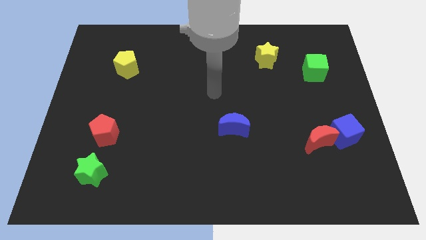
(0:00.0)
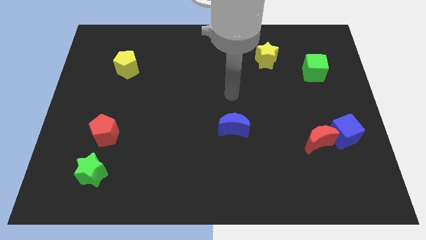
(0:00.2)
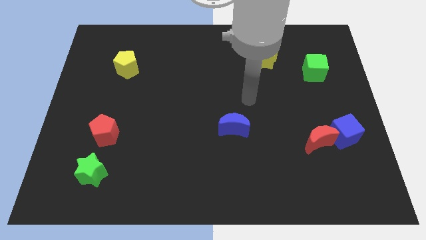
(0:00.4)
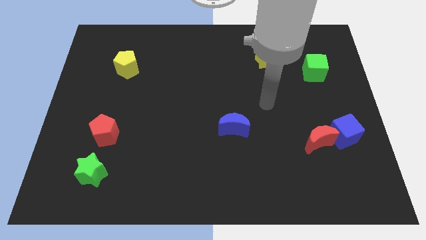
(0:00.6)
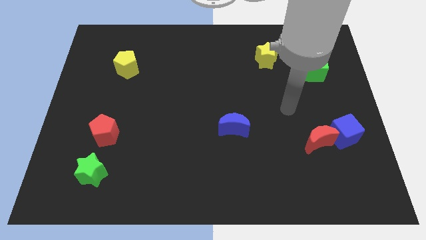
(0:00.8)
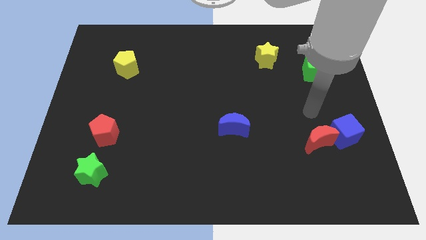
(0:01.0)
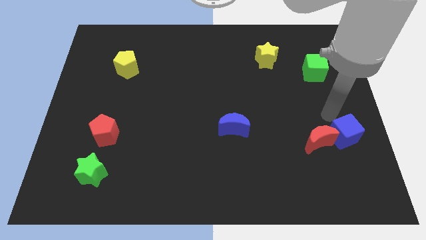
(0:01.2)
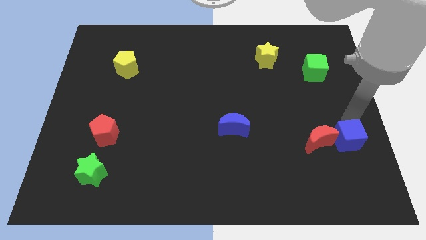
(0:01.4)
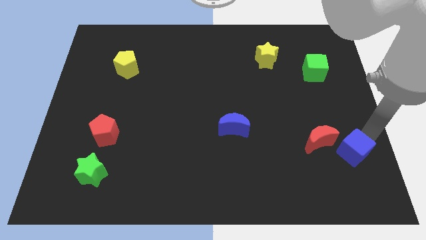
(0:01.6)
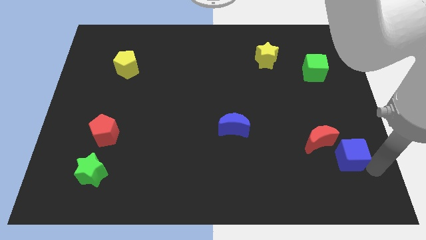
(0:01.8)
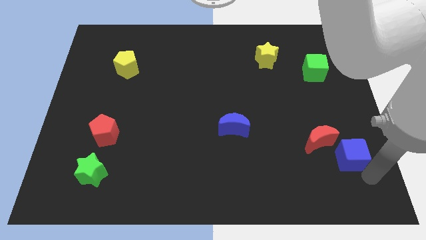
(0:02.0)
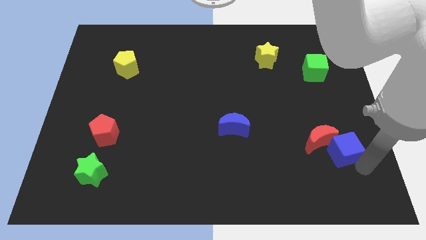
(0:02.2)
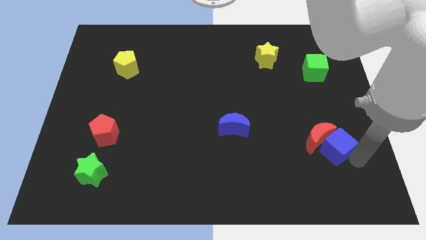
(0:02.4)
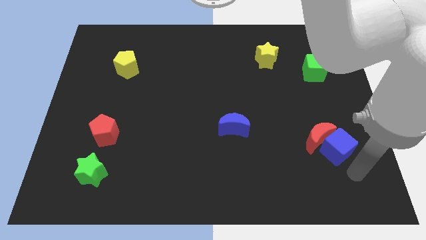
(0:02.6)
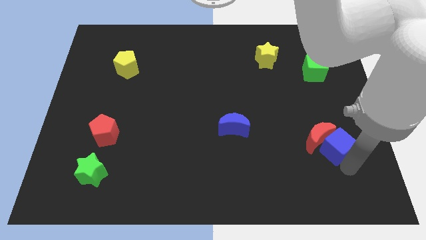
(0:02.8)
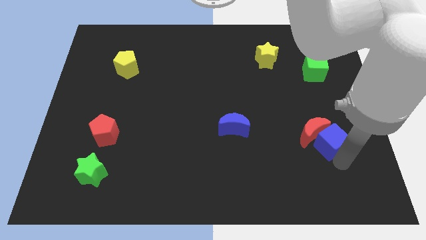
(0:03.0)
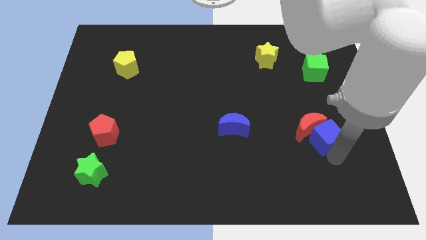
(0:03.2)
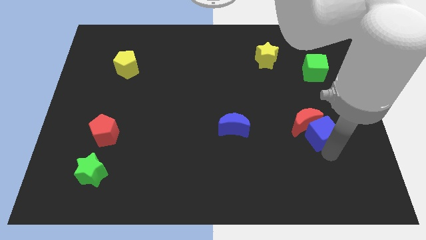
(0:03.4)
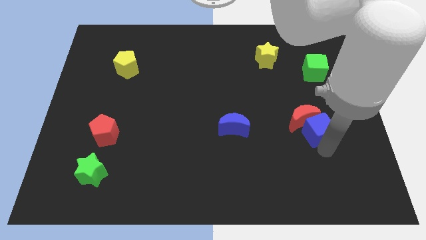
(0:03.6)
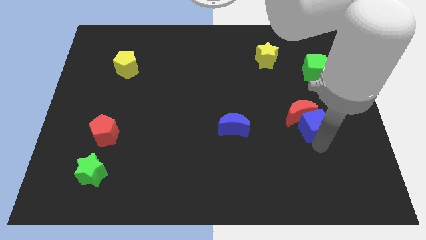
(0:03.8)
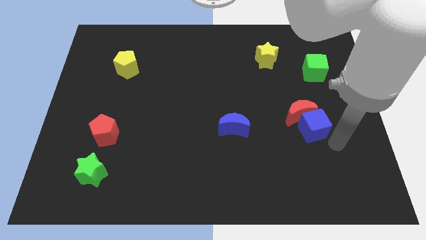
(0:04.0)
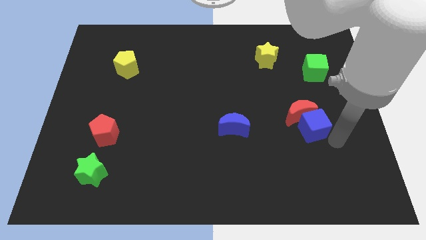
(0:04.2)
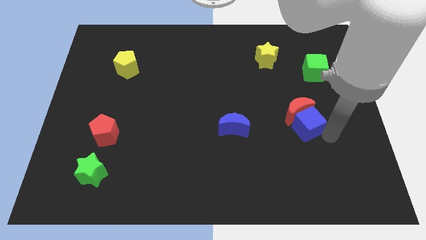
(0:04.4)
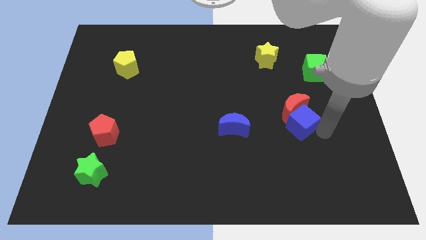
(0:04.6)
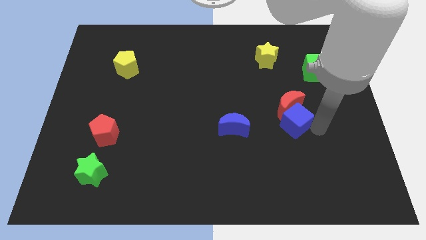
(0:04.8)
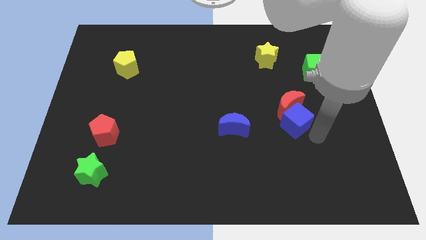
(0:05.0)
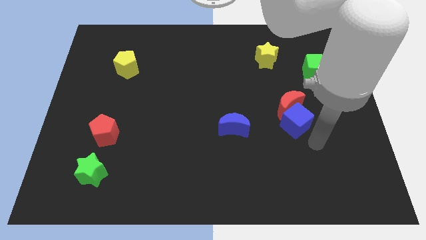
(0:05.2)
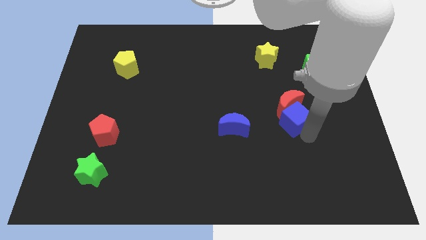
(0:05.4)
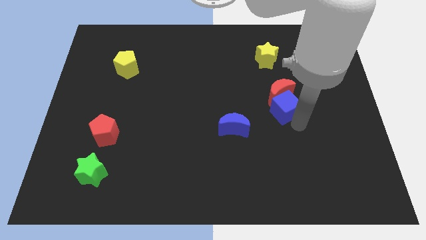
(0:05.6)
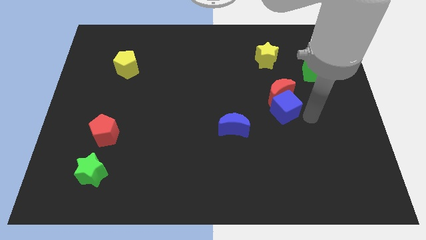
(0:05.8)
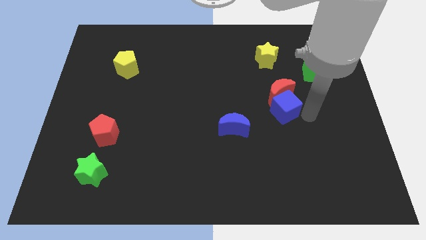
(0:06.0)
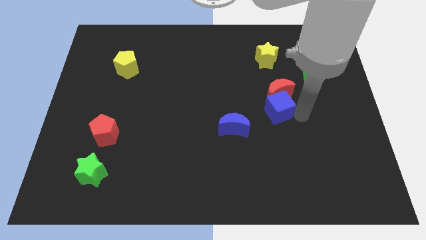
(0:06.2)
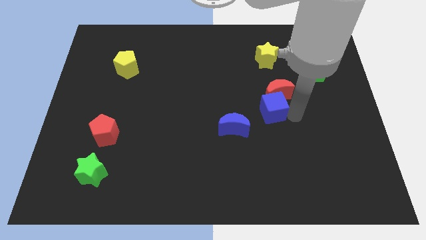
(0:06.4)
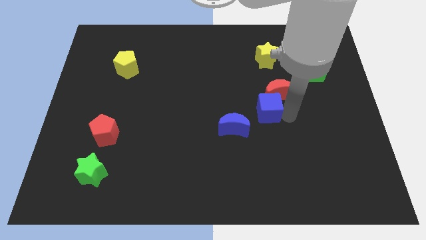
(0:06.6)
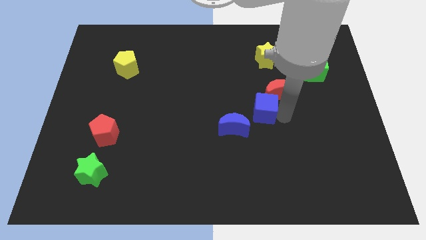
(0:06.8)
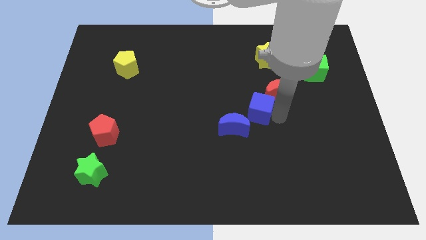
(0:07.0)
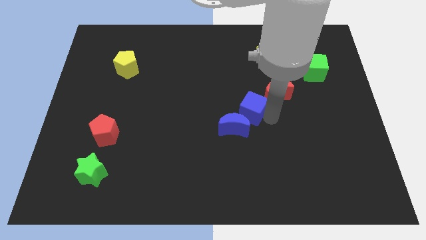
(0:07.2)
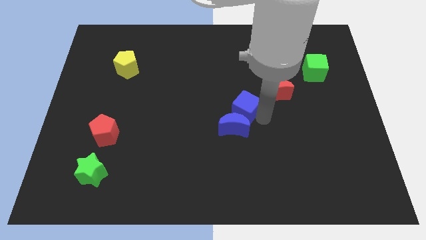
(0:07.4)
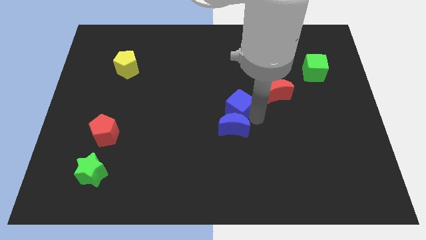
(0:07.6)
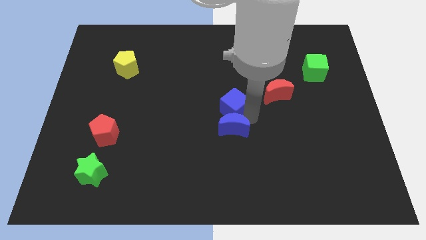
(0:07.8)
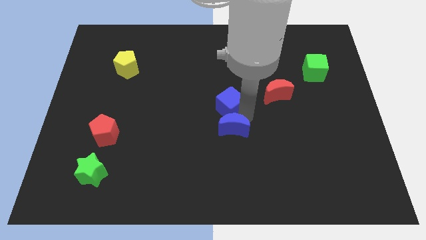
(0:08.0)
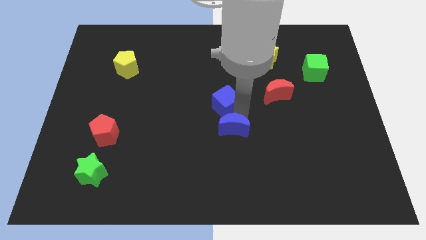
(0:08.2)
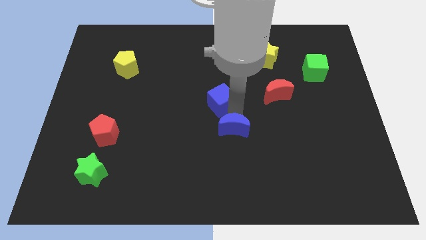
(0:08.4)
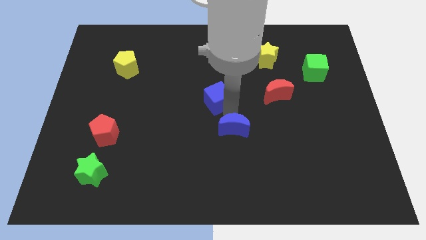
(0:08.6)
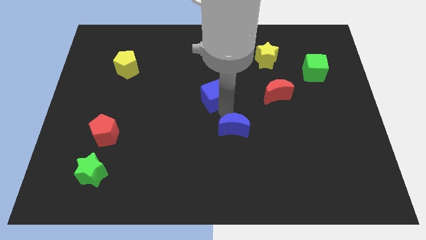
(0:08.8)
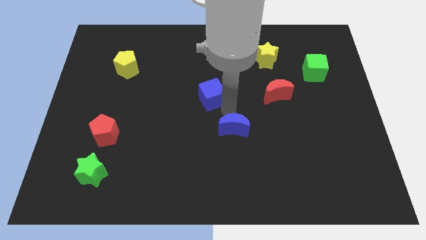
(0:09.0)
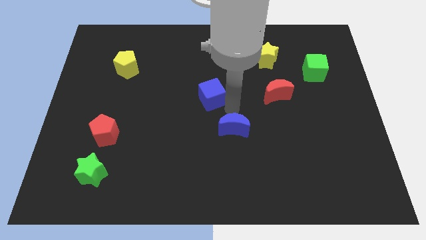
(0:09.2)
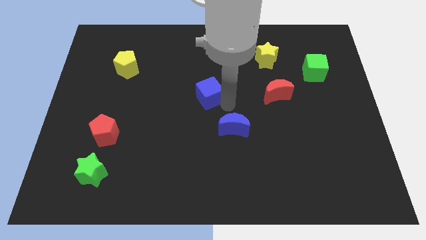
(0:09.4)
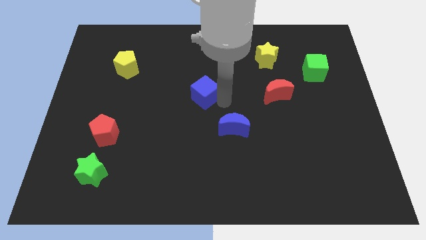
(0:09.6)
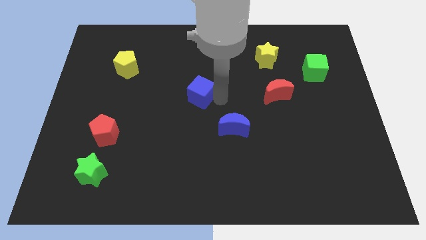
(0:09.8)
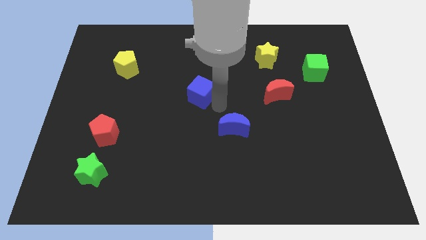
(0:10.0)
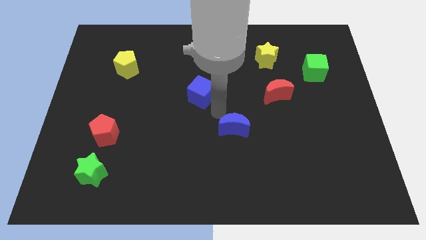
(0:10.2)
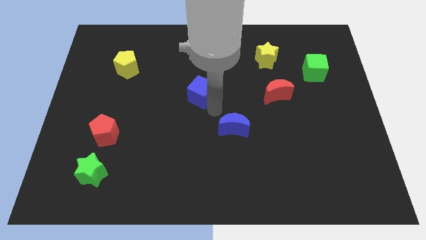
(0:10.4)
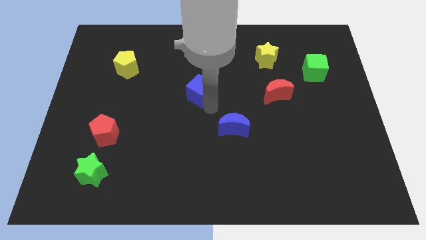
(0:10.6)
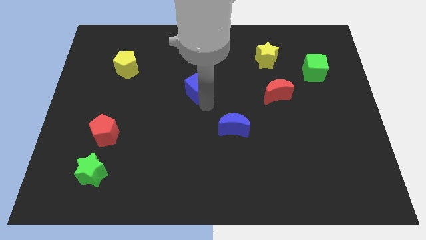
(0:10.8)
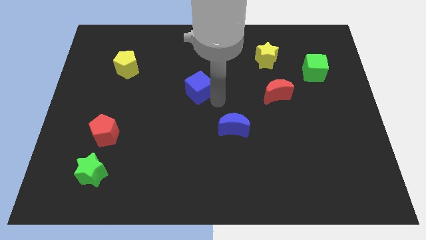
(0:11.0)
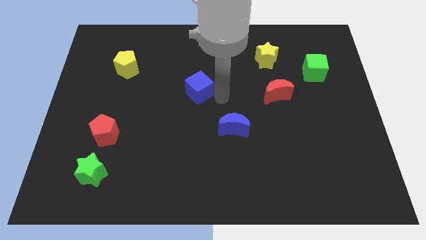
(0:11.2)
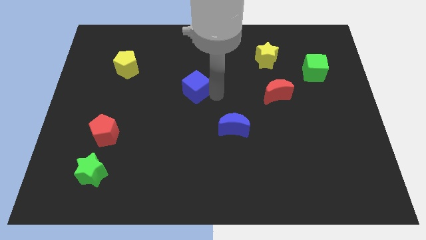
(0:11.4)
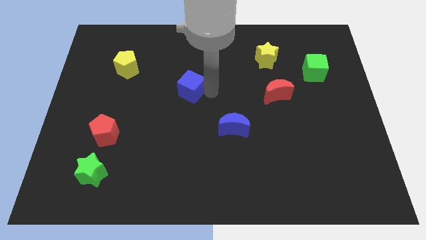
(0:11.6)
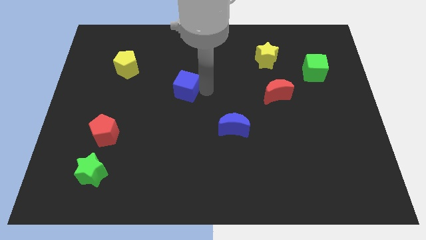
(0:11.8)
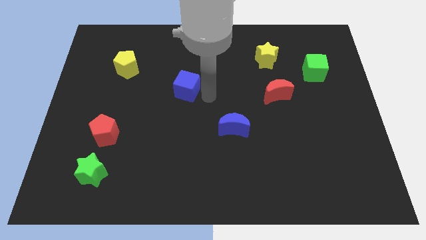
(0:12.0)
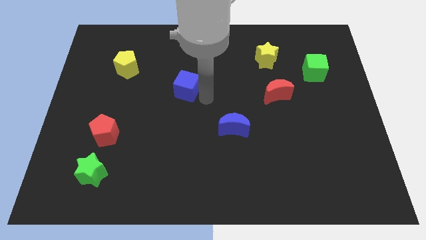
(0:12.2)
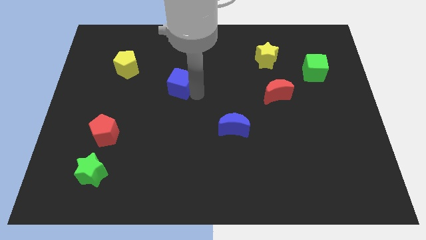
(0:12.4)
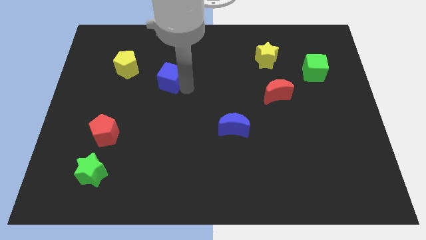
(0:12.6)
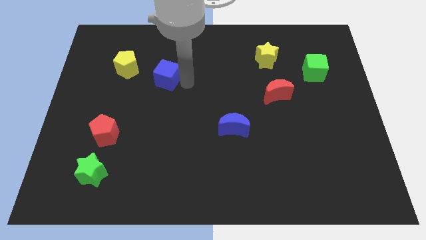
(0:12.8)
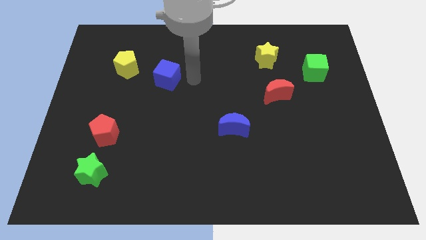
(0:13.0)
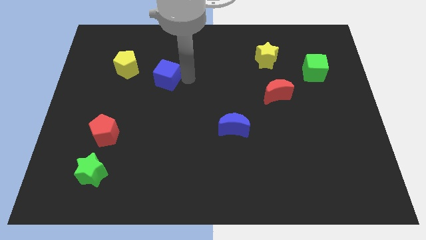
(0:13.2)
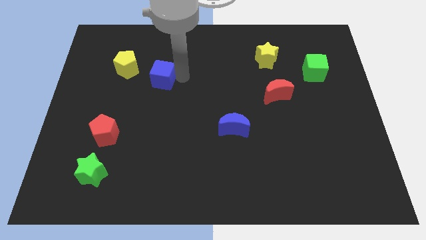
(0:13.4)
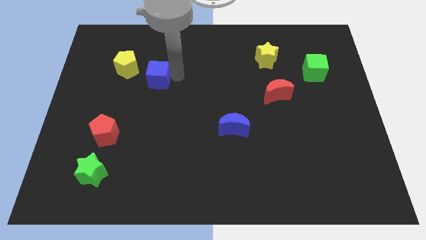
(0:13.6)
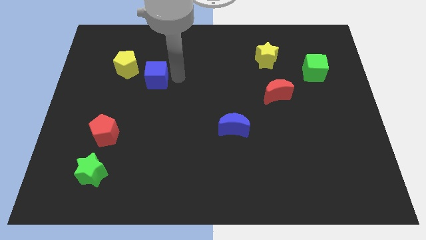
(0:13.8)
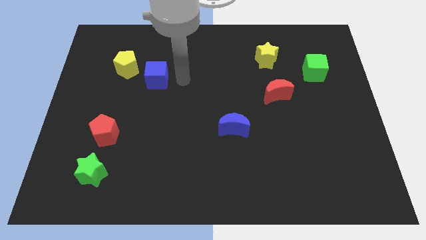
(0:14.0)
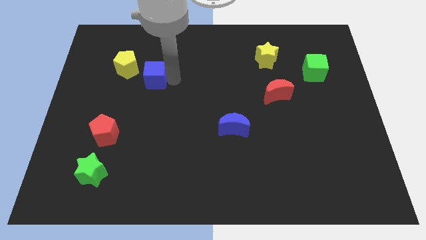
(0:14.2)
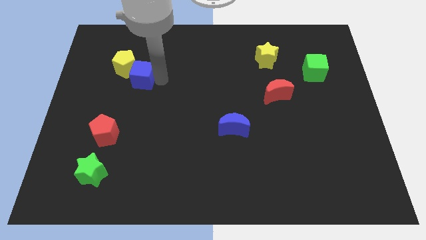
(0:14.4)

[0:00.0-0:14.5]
slide the blue cube close to the yellow pentagon
